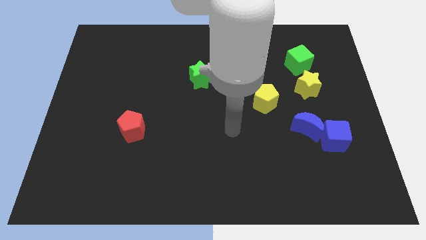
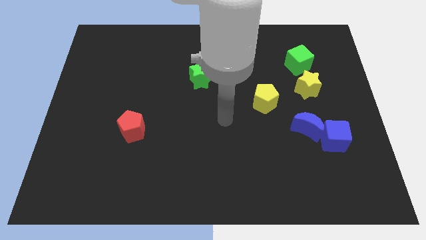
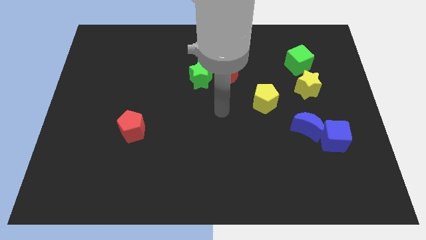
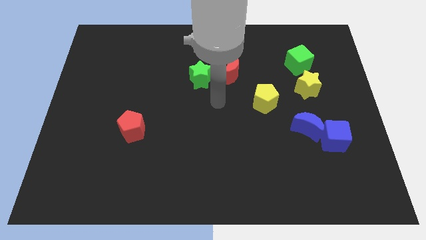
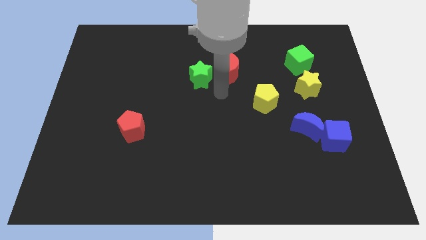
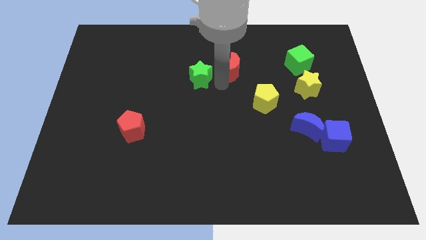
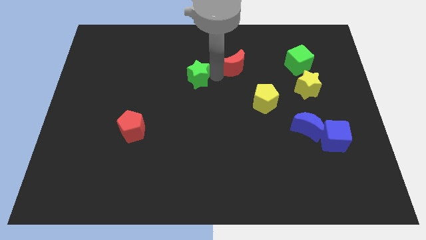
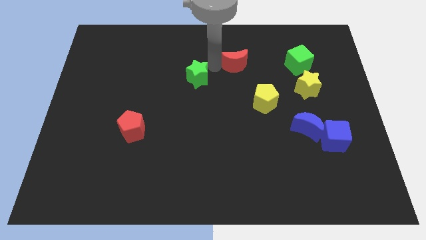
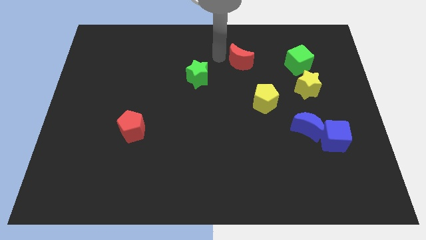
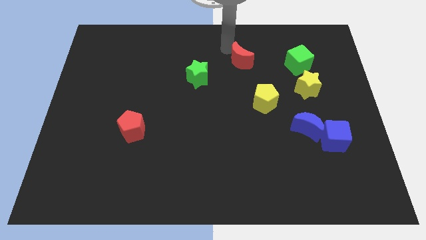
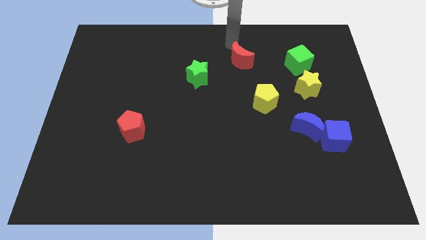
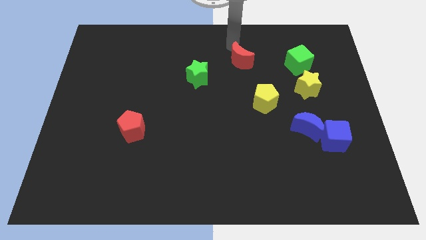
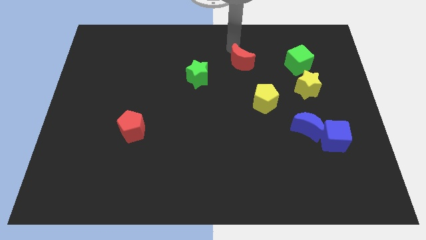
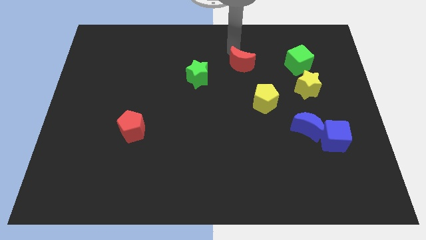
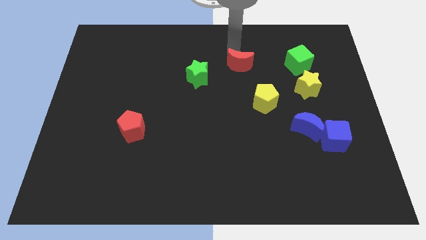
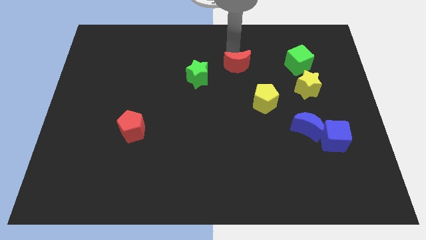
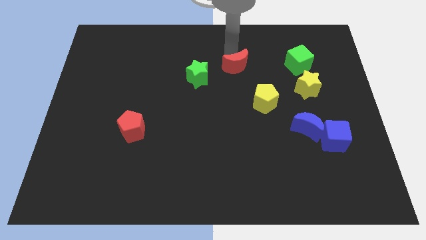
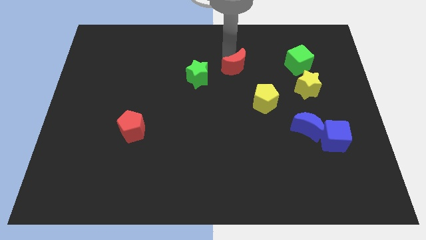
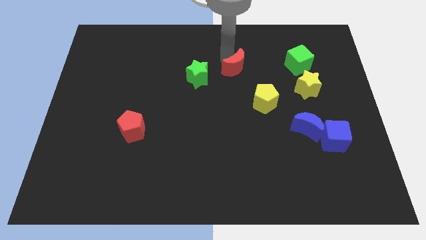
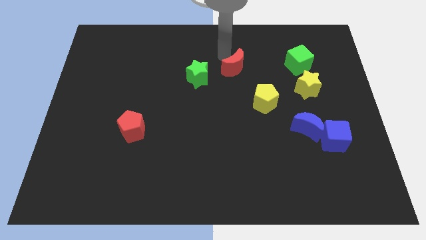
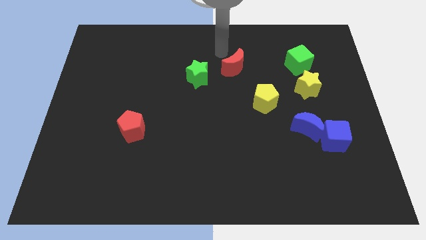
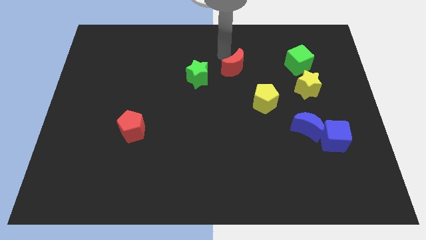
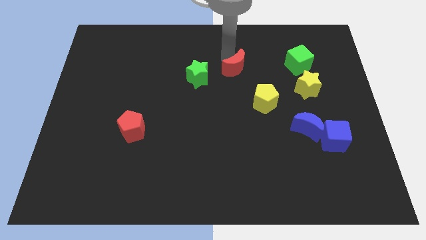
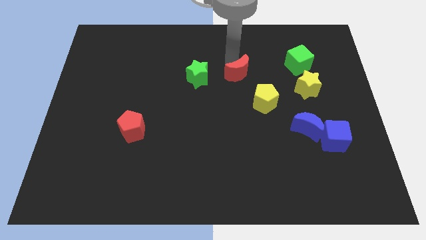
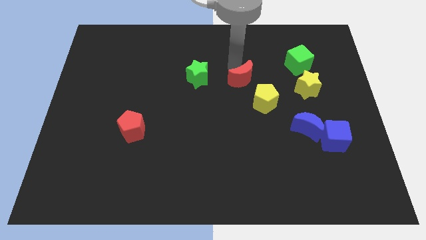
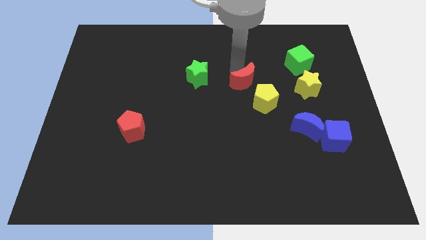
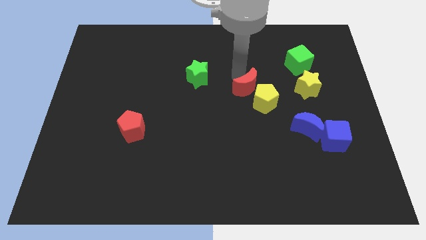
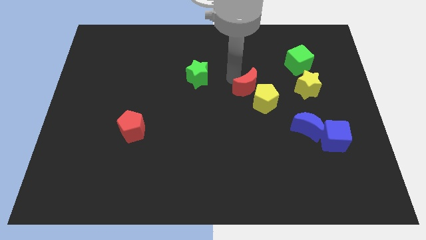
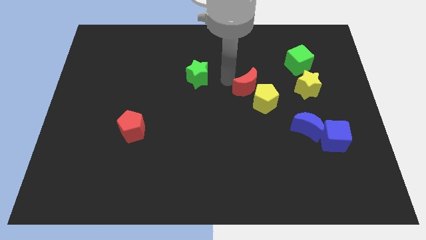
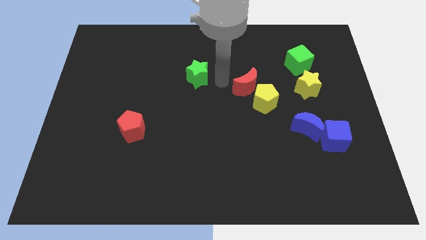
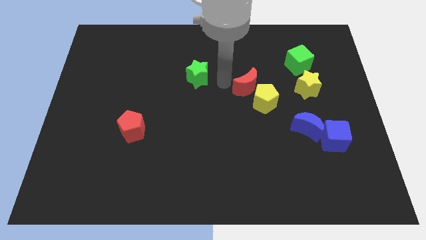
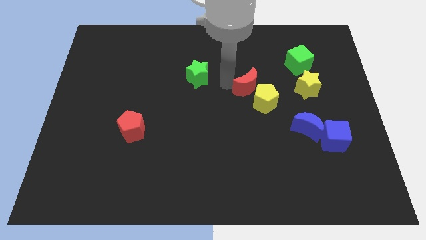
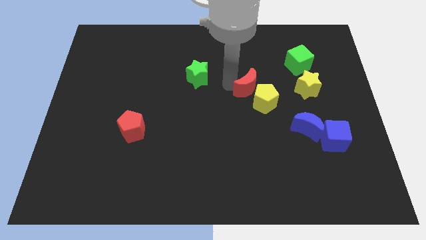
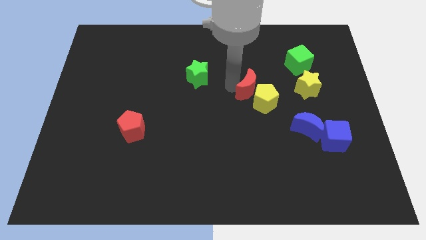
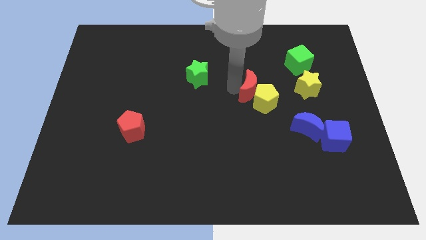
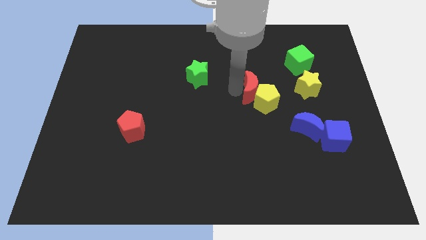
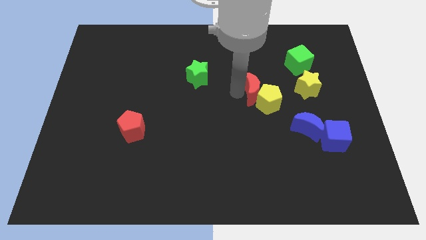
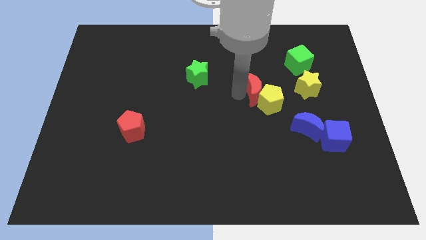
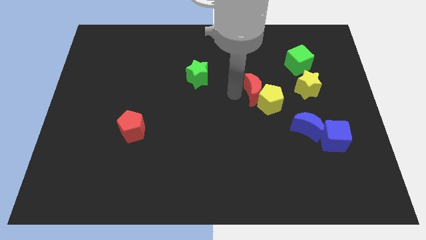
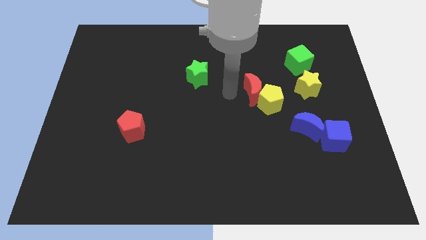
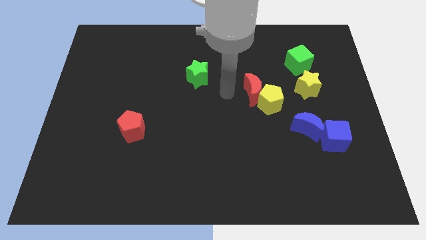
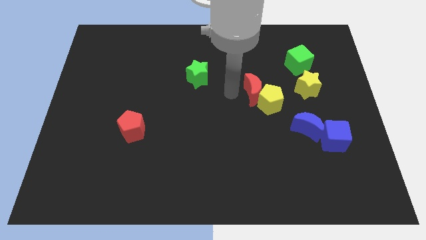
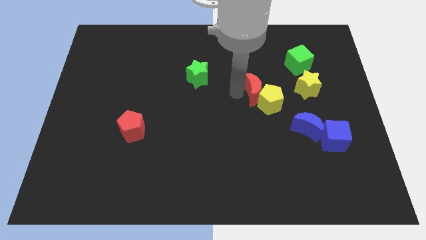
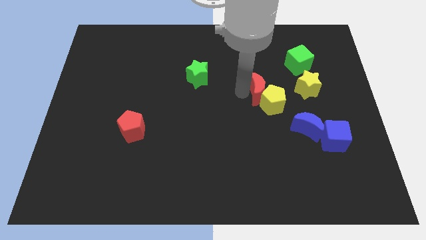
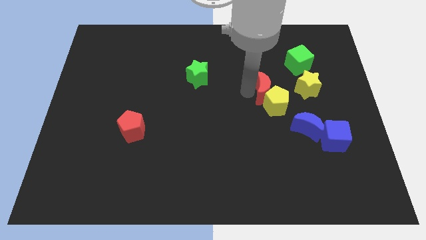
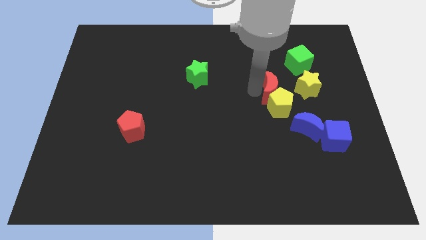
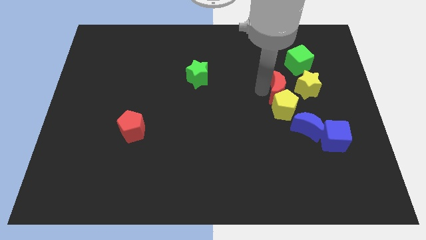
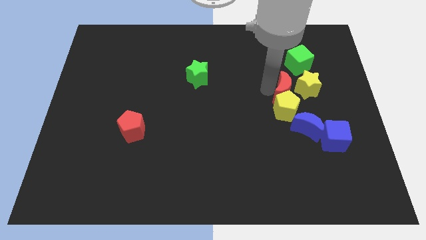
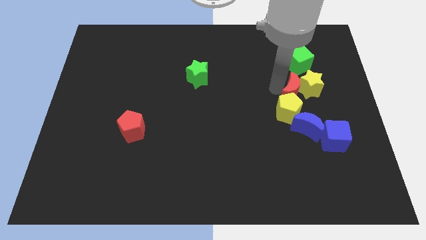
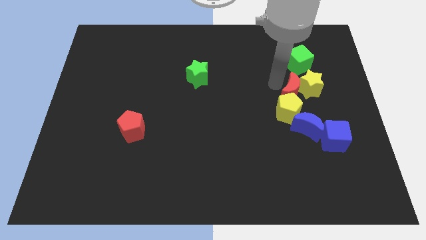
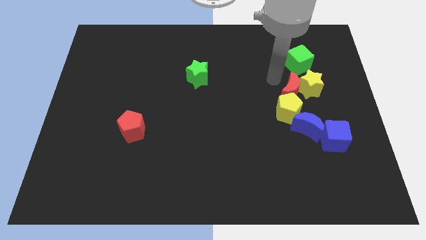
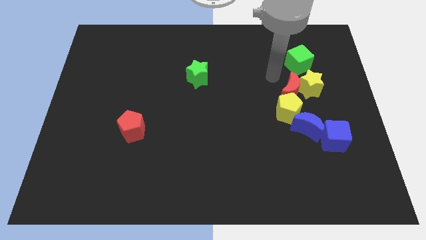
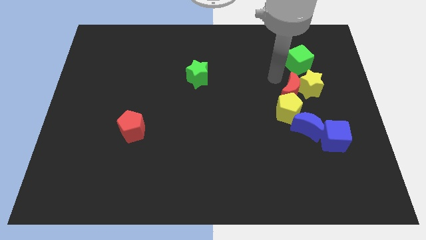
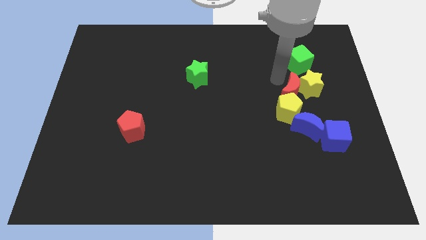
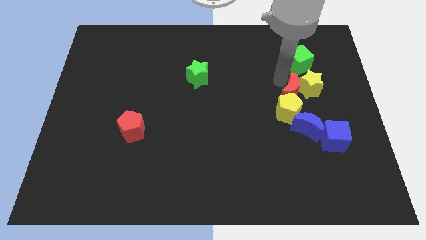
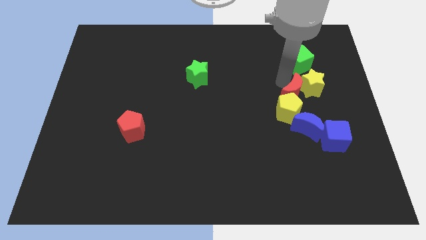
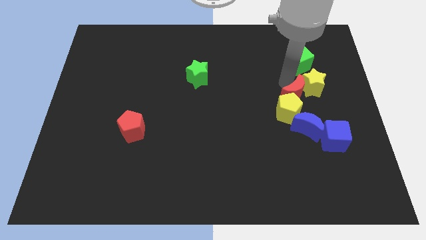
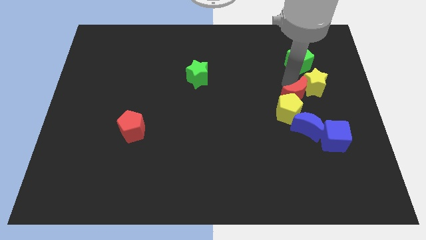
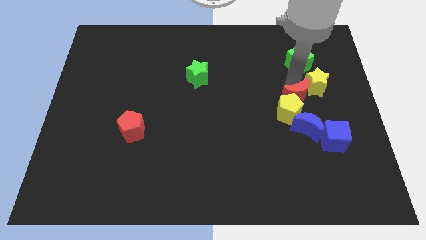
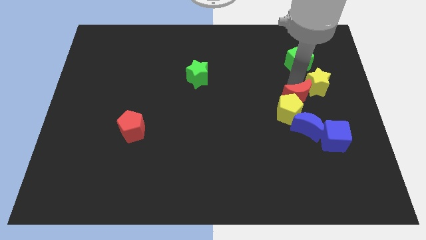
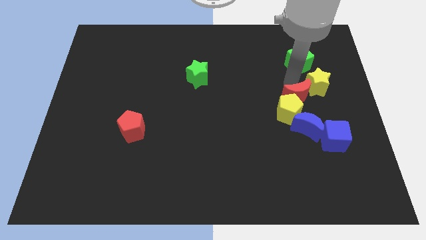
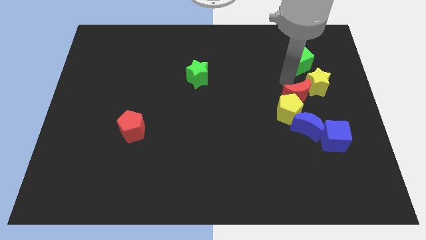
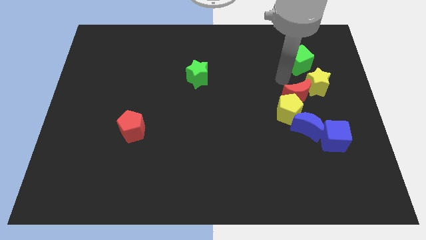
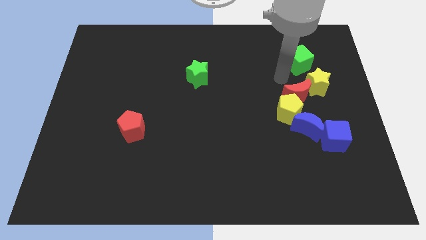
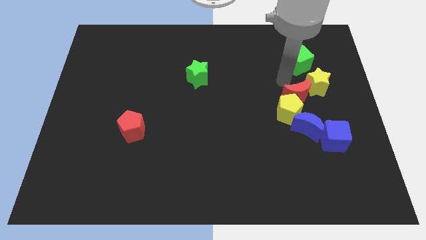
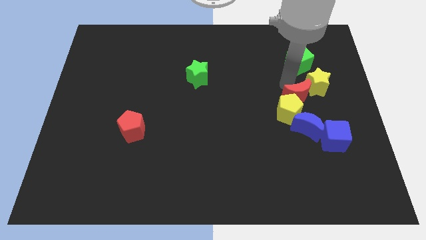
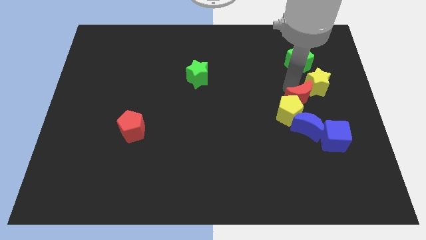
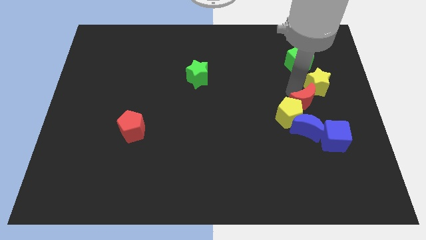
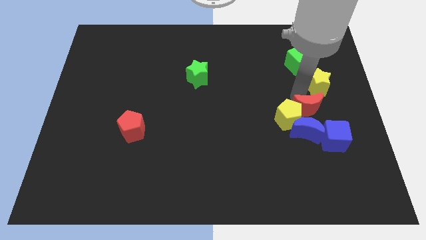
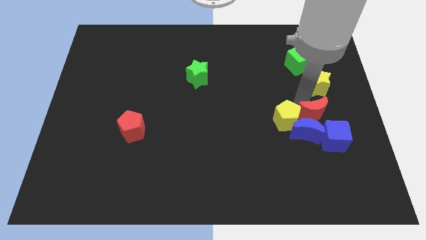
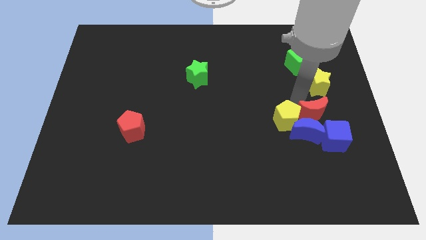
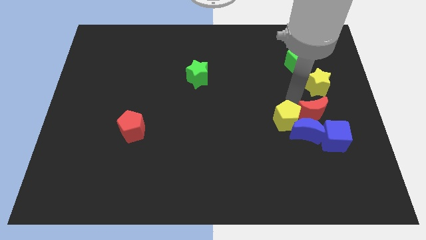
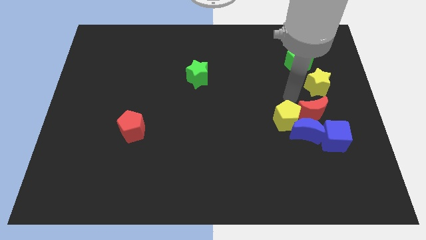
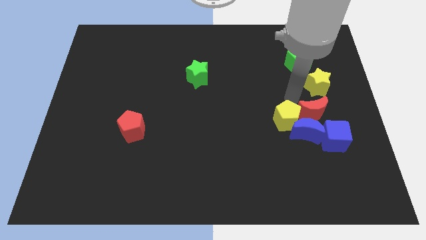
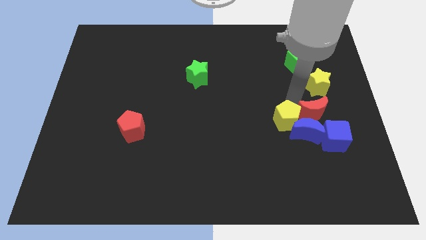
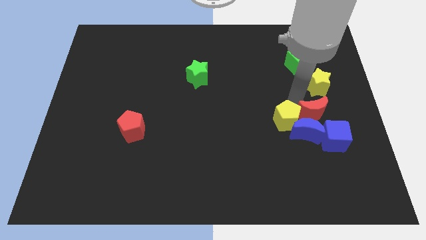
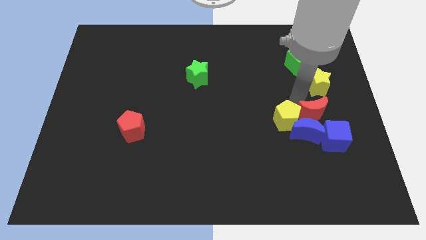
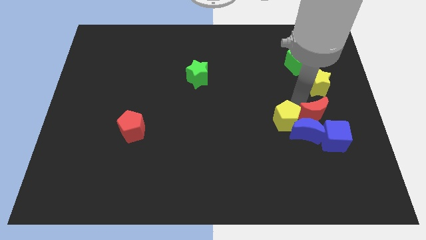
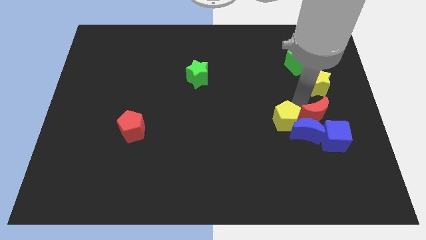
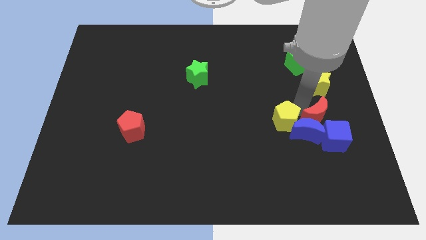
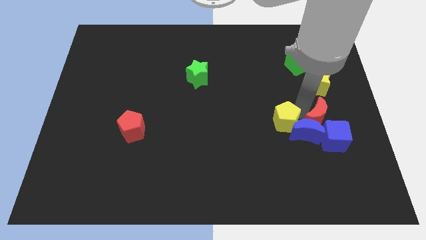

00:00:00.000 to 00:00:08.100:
slide the red moon towards the blue cube
